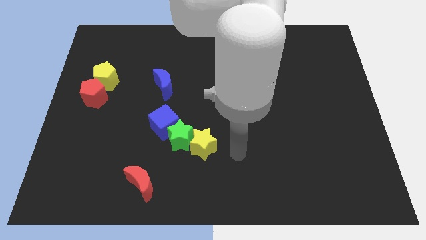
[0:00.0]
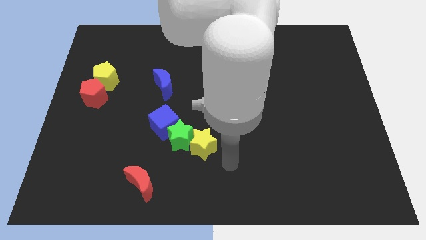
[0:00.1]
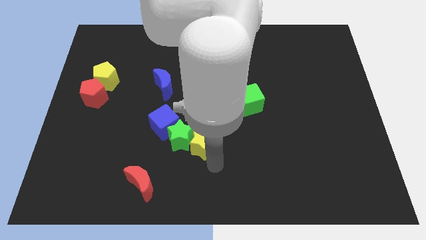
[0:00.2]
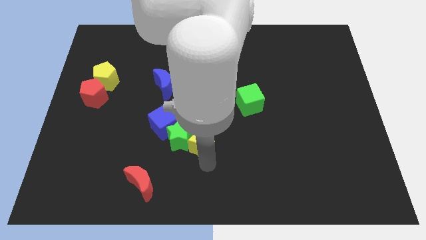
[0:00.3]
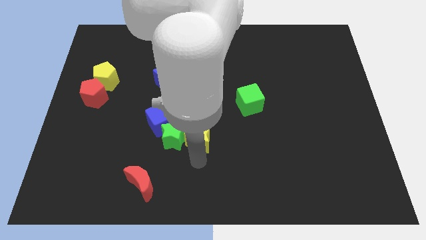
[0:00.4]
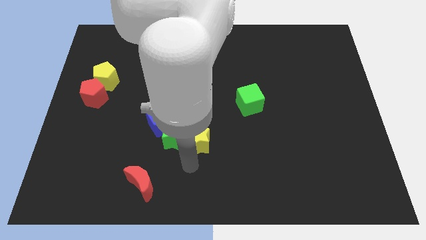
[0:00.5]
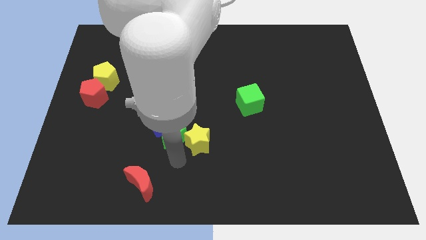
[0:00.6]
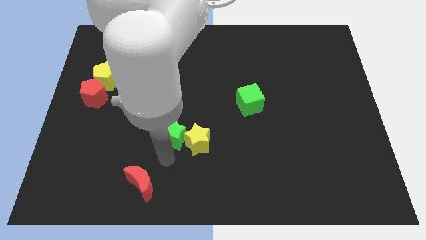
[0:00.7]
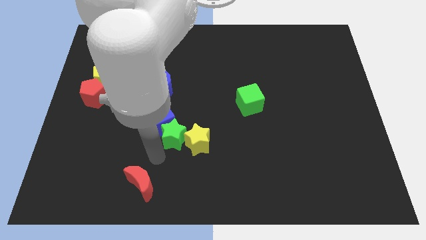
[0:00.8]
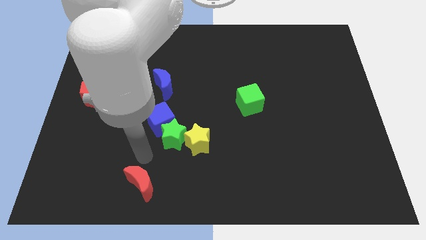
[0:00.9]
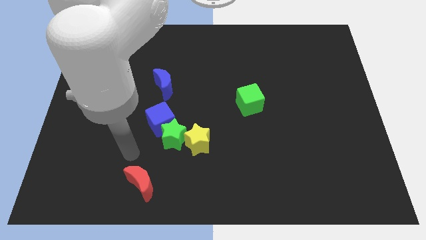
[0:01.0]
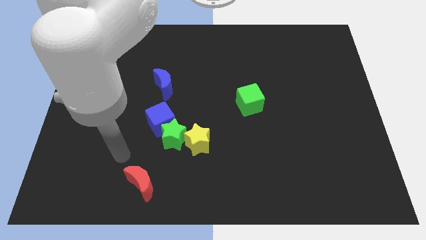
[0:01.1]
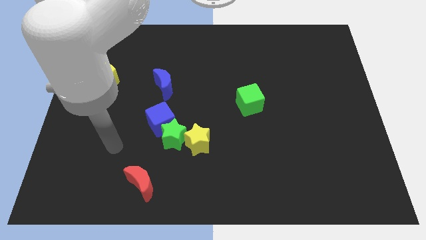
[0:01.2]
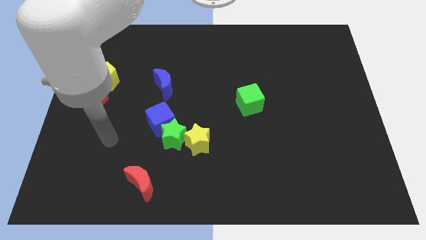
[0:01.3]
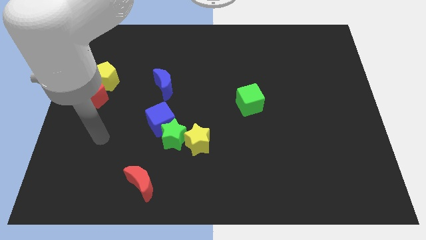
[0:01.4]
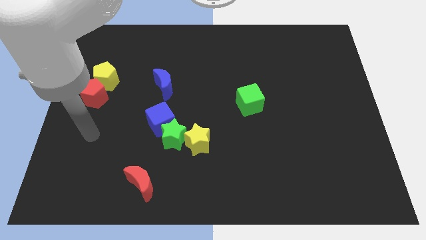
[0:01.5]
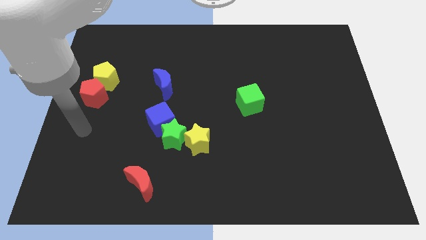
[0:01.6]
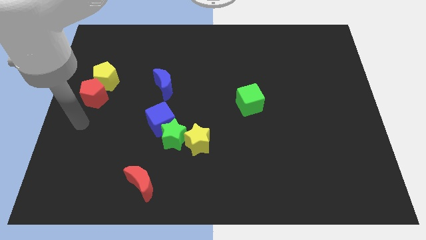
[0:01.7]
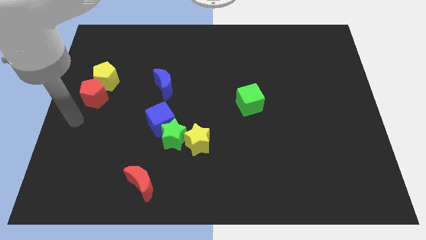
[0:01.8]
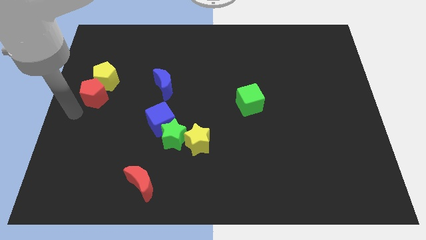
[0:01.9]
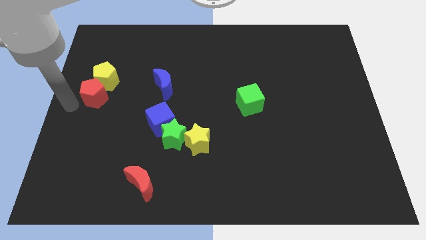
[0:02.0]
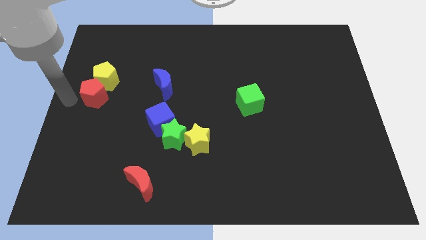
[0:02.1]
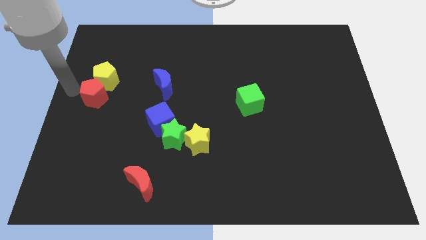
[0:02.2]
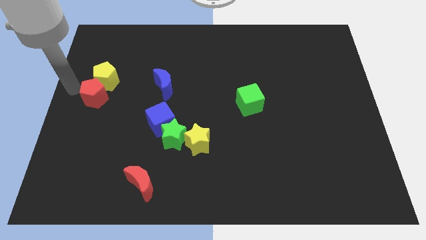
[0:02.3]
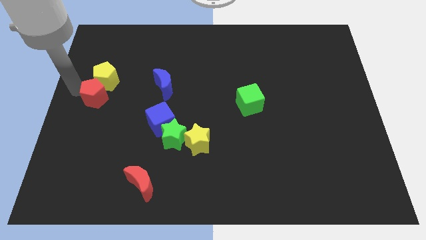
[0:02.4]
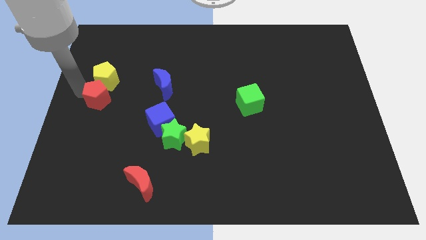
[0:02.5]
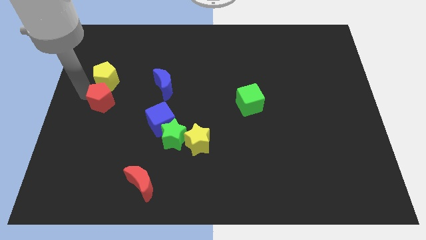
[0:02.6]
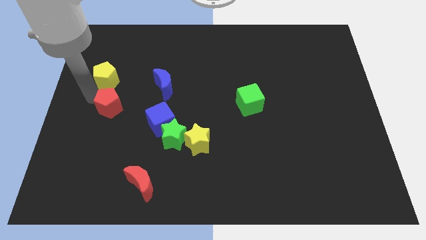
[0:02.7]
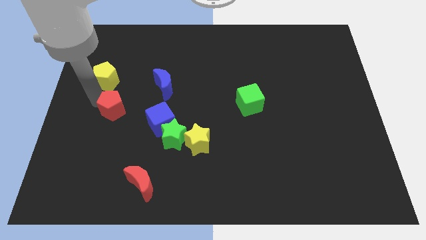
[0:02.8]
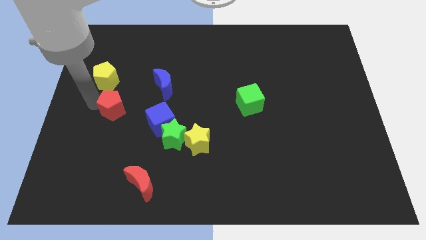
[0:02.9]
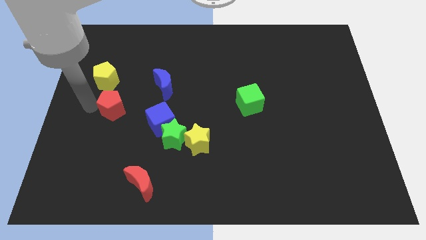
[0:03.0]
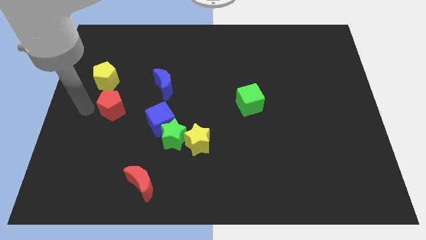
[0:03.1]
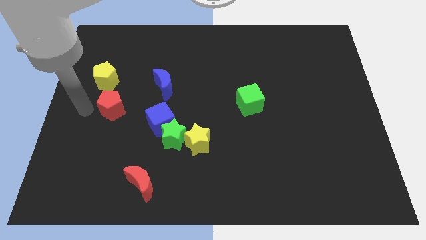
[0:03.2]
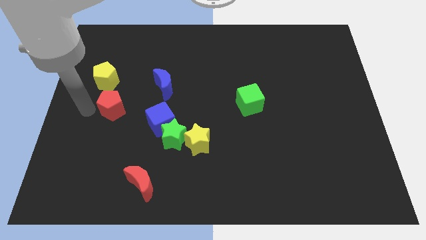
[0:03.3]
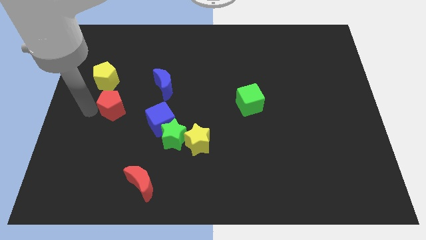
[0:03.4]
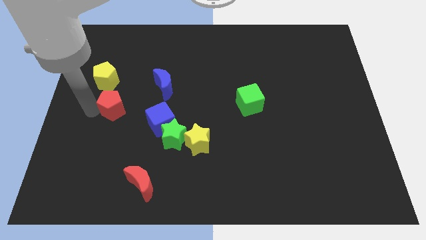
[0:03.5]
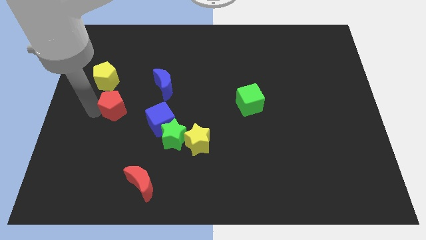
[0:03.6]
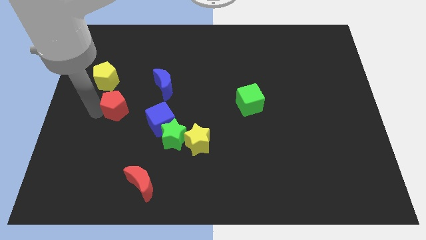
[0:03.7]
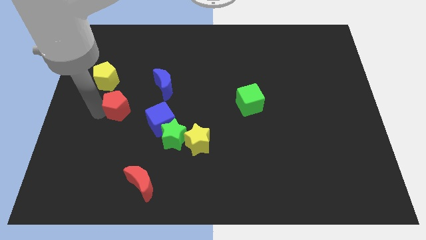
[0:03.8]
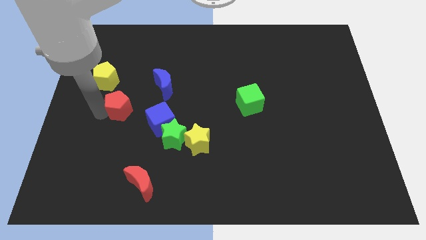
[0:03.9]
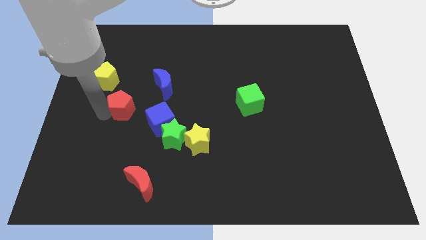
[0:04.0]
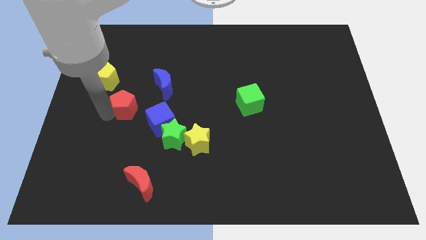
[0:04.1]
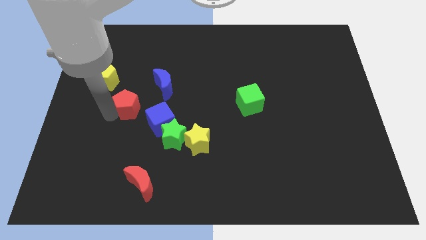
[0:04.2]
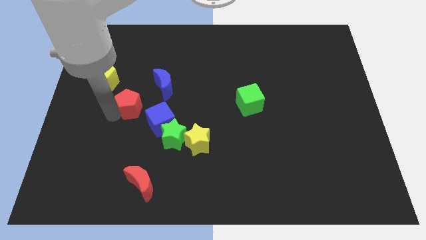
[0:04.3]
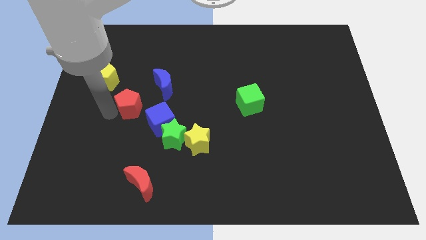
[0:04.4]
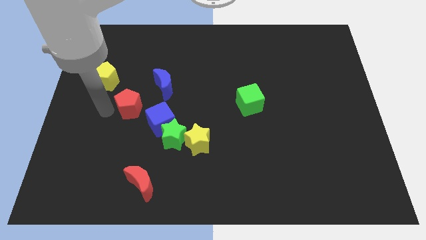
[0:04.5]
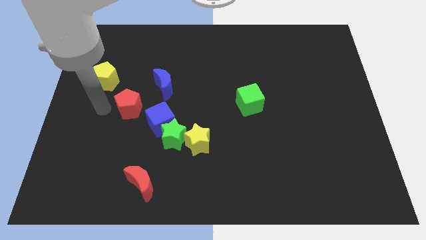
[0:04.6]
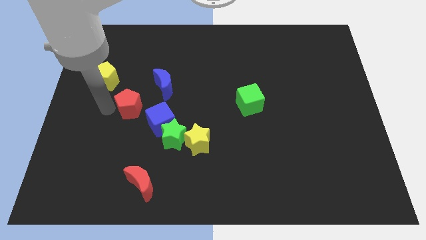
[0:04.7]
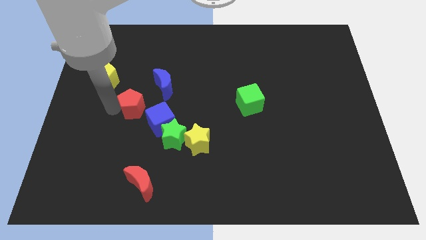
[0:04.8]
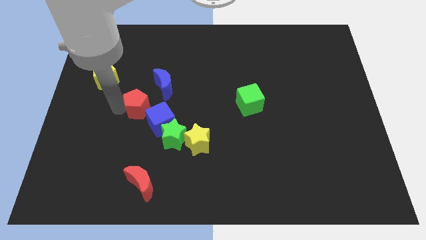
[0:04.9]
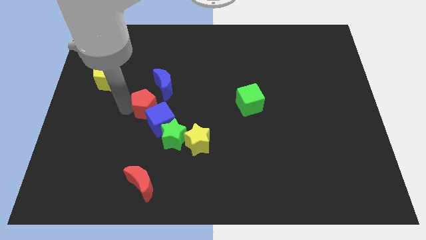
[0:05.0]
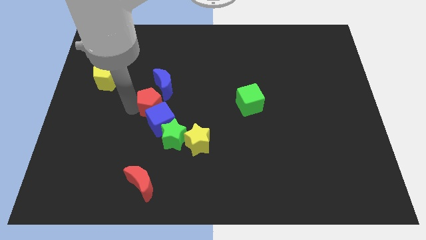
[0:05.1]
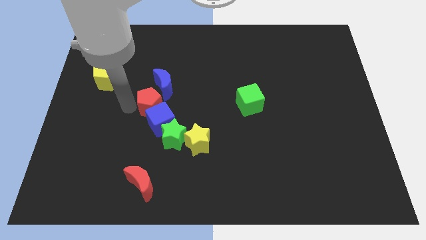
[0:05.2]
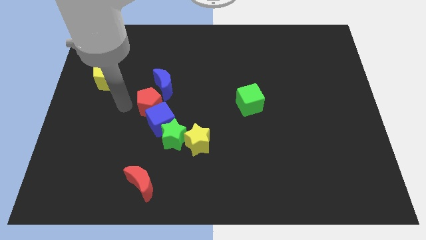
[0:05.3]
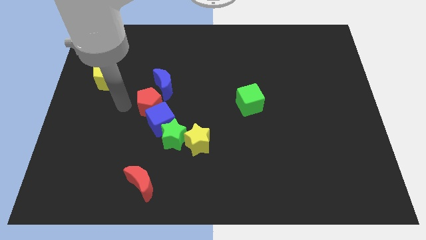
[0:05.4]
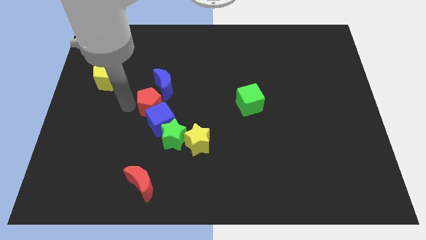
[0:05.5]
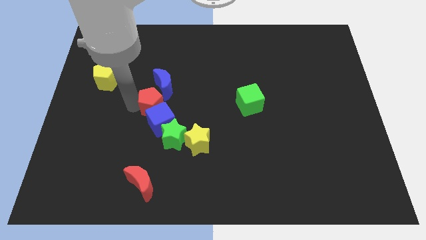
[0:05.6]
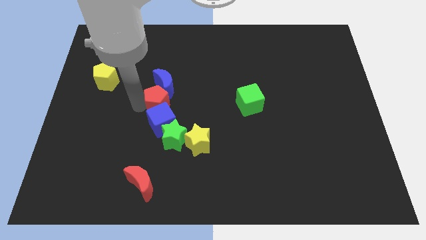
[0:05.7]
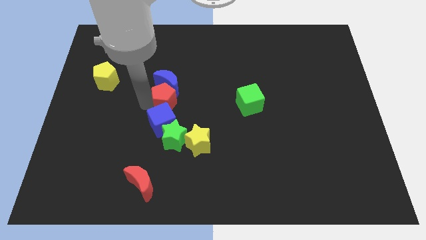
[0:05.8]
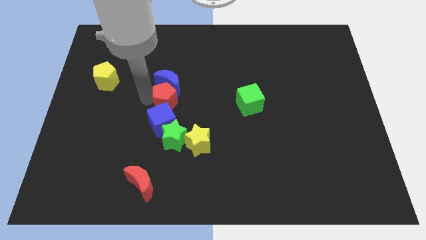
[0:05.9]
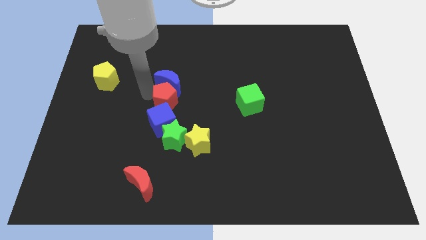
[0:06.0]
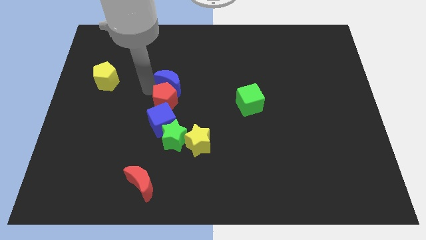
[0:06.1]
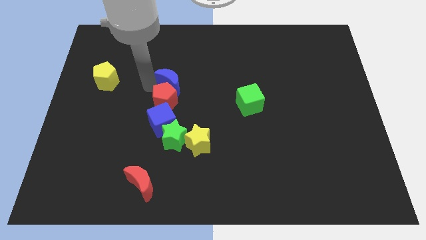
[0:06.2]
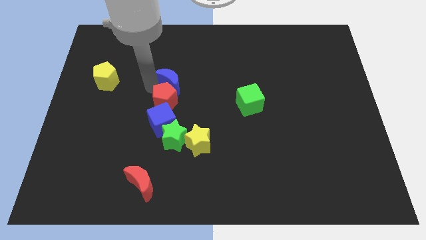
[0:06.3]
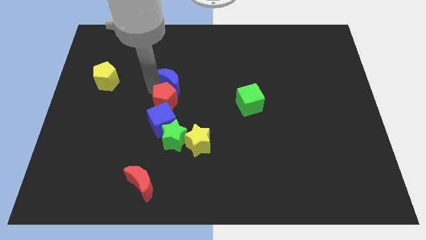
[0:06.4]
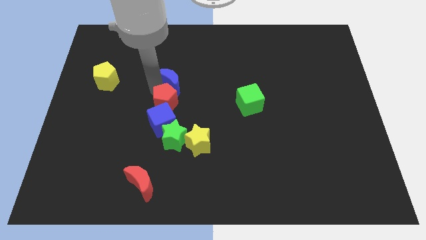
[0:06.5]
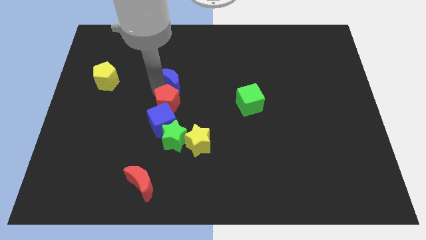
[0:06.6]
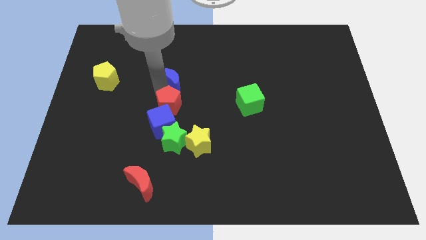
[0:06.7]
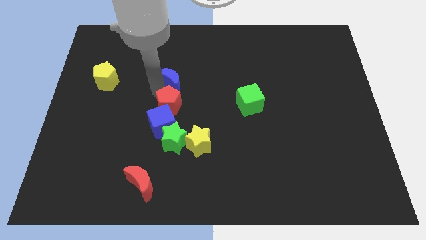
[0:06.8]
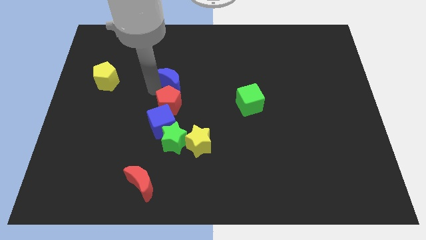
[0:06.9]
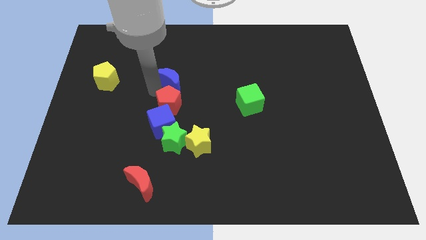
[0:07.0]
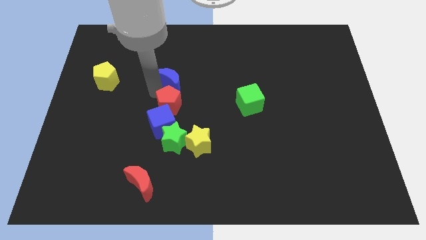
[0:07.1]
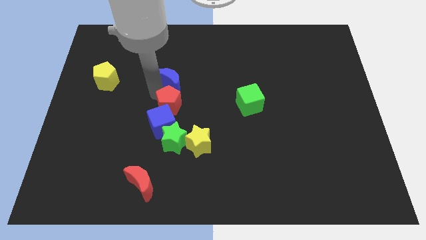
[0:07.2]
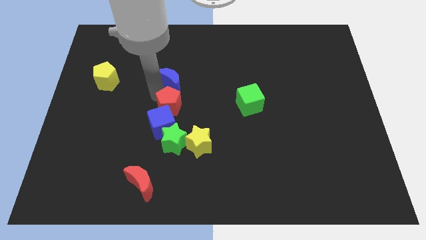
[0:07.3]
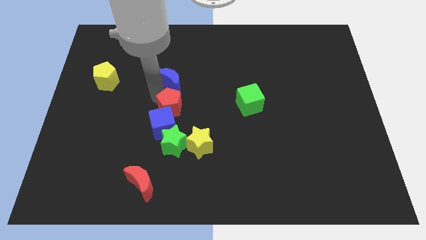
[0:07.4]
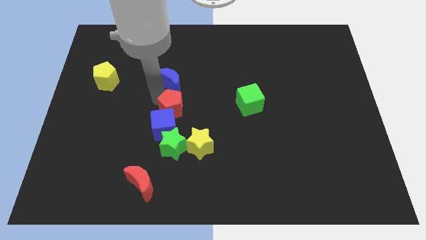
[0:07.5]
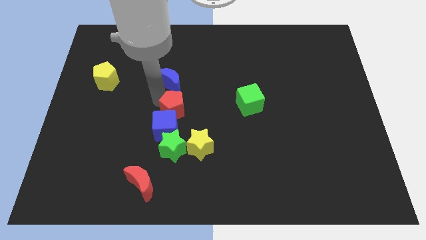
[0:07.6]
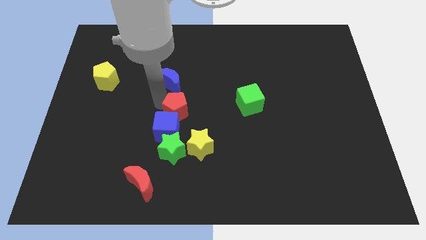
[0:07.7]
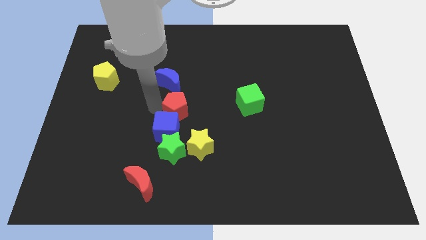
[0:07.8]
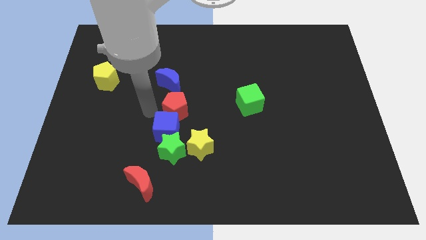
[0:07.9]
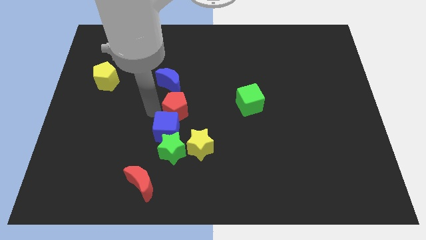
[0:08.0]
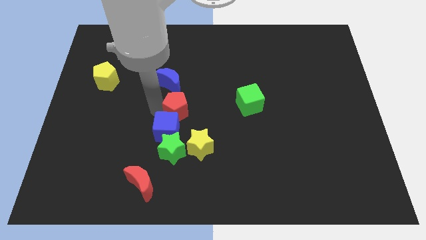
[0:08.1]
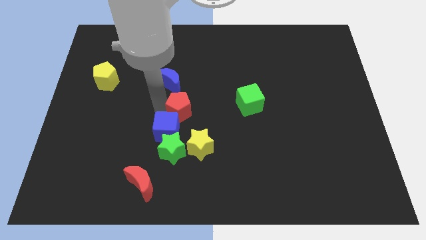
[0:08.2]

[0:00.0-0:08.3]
push the red pentagon right
